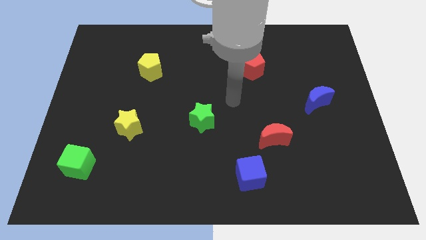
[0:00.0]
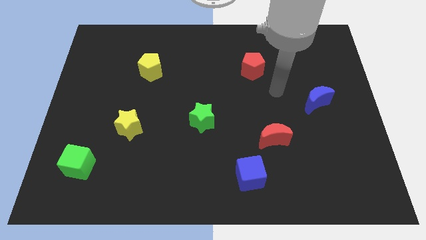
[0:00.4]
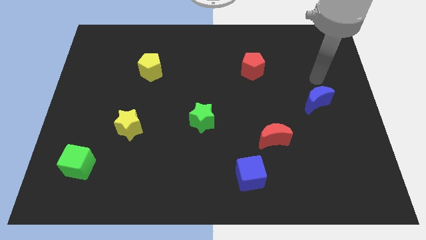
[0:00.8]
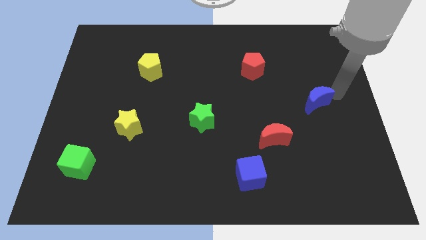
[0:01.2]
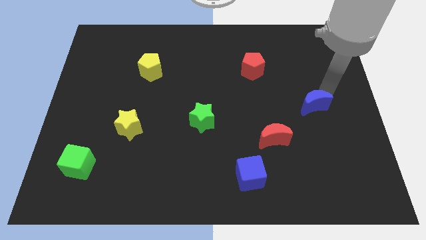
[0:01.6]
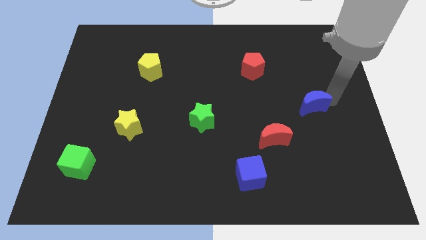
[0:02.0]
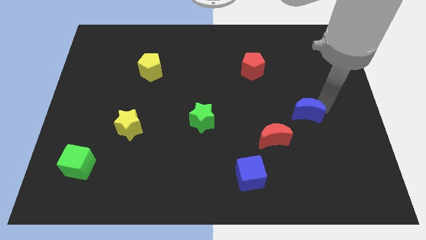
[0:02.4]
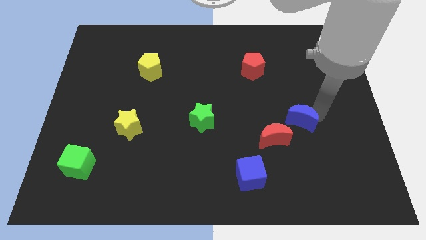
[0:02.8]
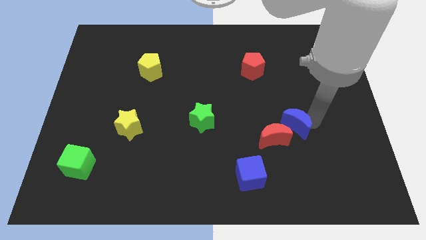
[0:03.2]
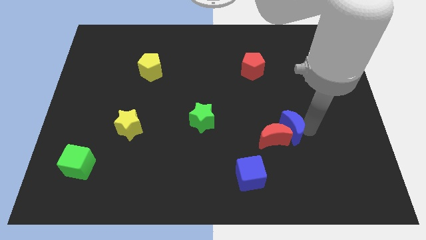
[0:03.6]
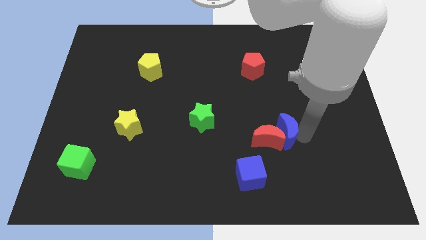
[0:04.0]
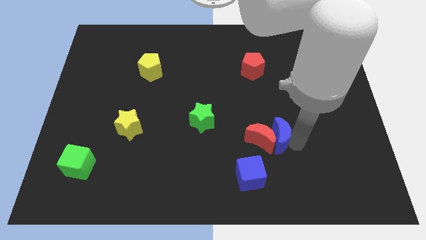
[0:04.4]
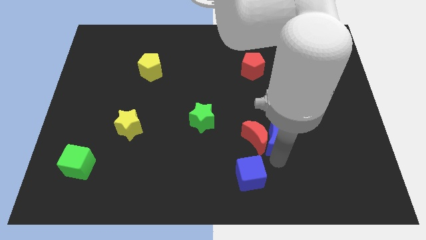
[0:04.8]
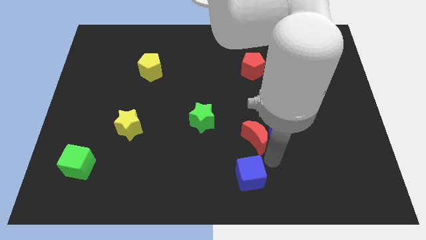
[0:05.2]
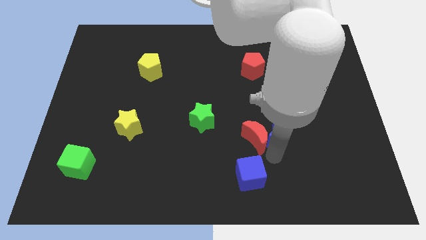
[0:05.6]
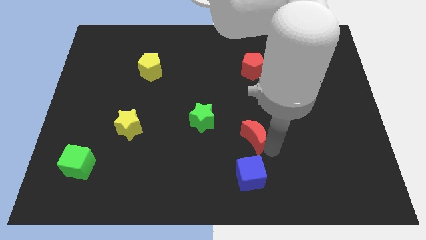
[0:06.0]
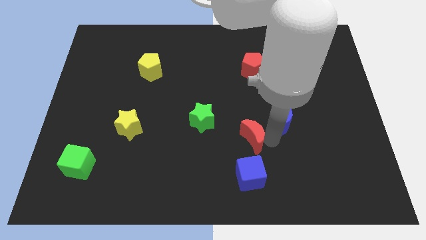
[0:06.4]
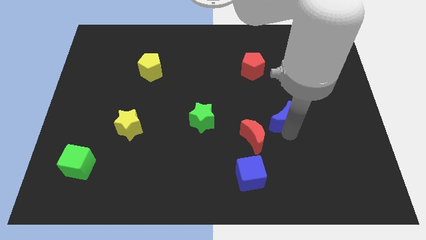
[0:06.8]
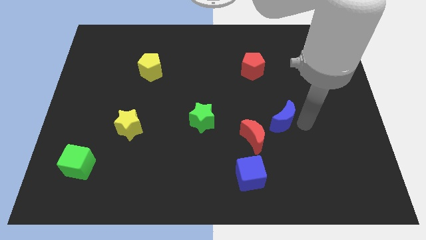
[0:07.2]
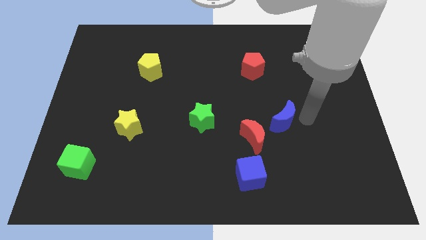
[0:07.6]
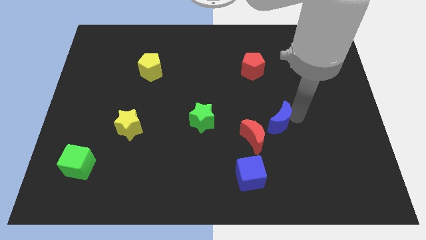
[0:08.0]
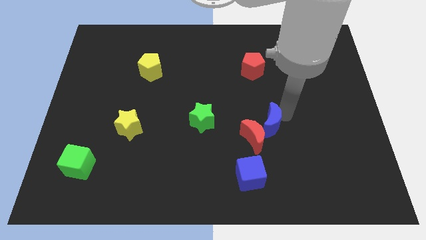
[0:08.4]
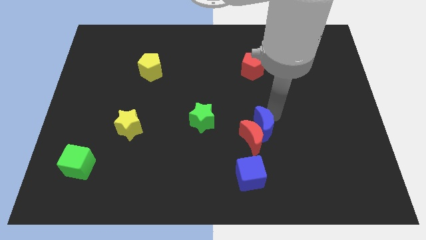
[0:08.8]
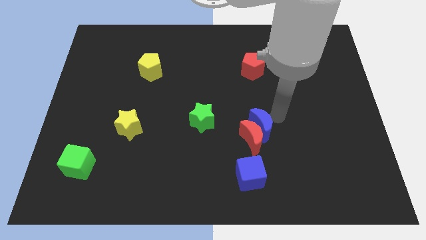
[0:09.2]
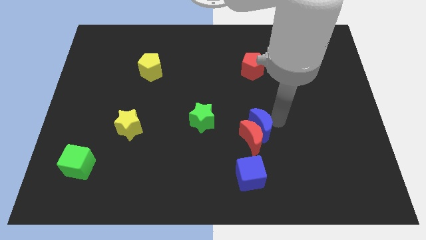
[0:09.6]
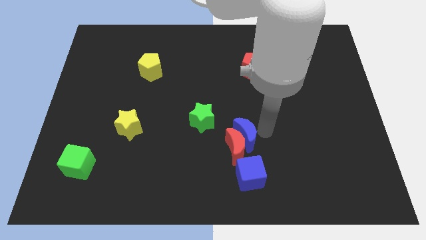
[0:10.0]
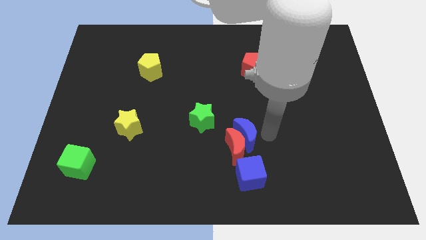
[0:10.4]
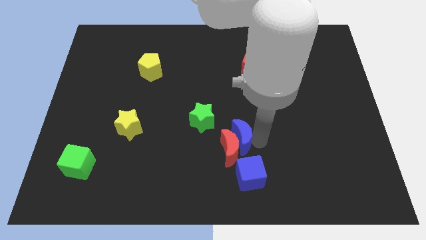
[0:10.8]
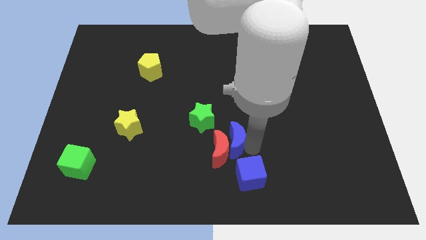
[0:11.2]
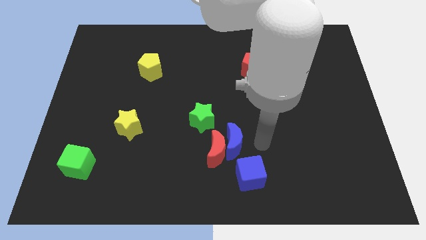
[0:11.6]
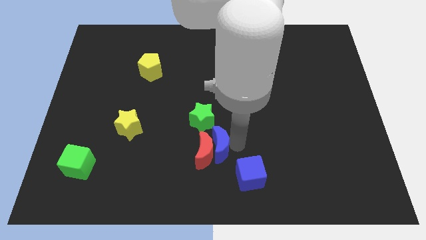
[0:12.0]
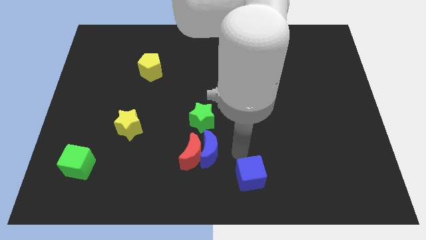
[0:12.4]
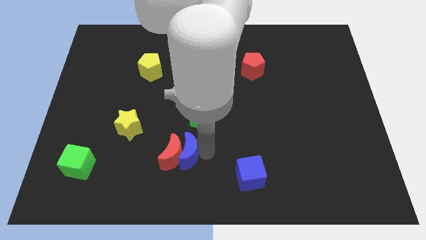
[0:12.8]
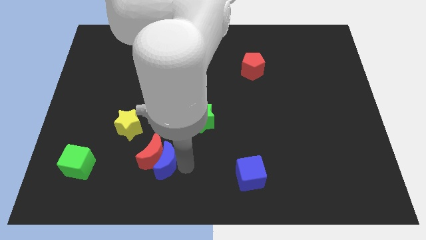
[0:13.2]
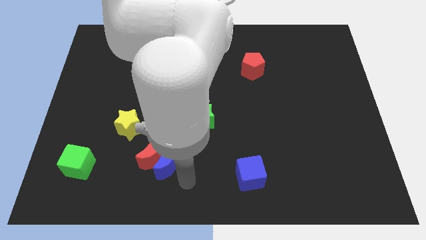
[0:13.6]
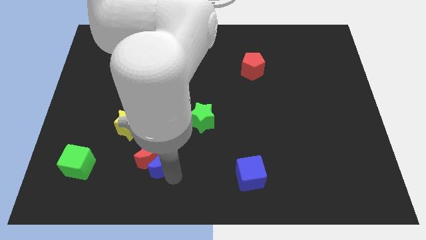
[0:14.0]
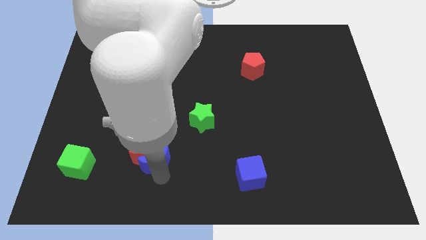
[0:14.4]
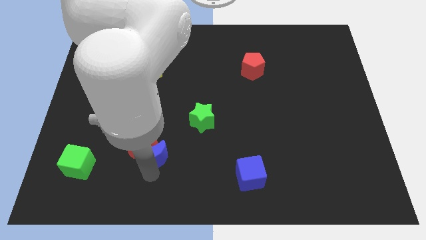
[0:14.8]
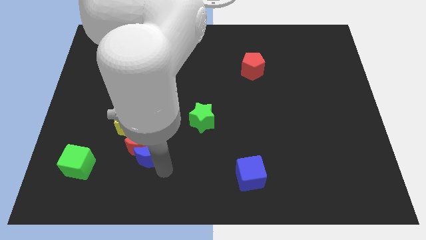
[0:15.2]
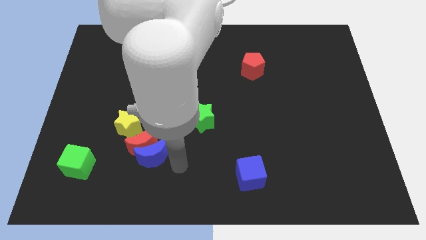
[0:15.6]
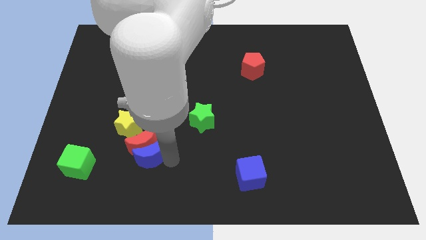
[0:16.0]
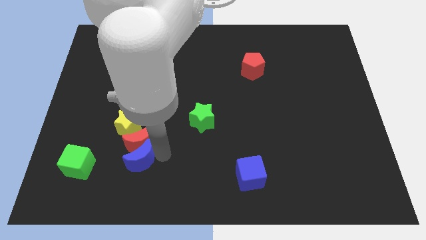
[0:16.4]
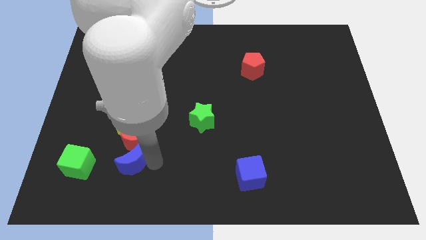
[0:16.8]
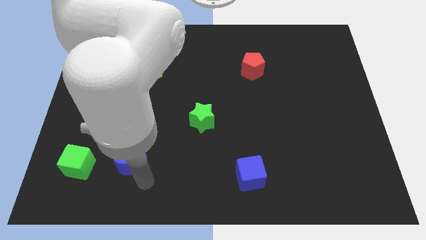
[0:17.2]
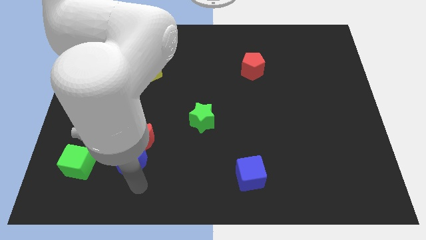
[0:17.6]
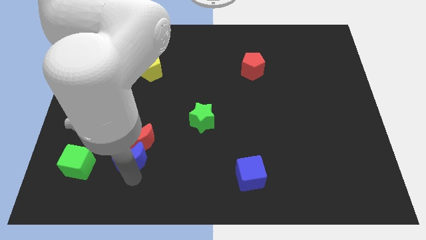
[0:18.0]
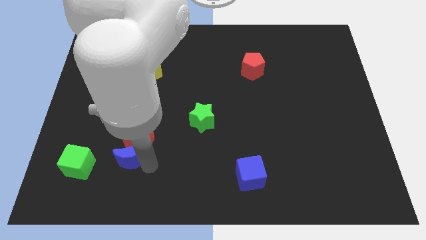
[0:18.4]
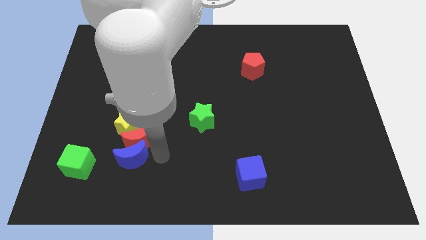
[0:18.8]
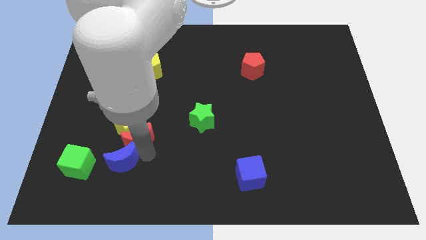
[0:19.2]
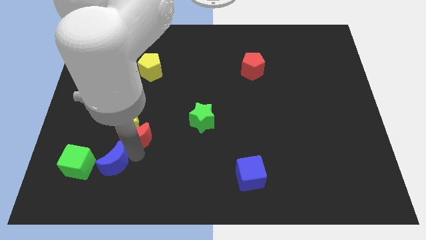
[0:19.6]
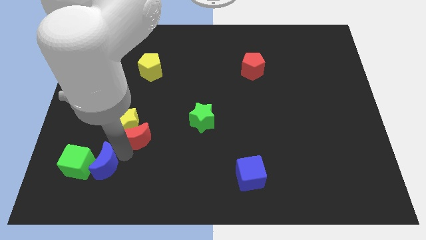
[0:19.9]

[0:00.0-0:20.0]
put the blue moon to the green cube

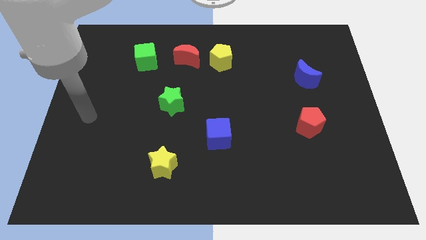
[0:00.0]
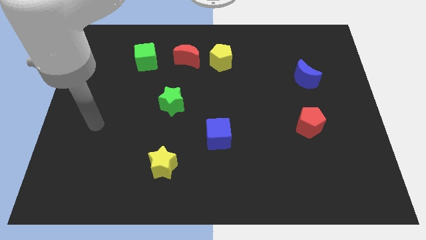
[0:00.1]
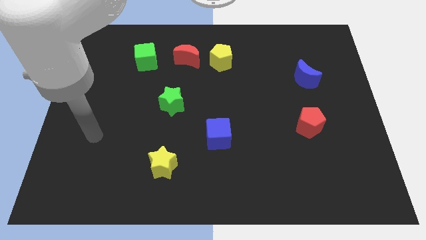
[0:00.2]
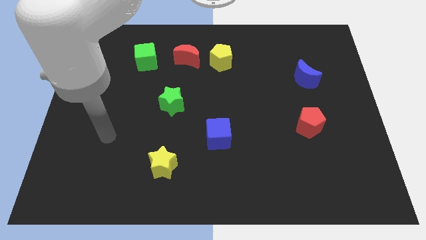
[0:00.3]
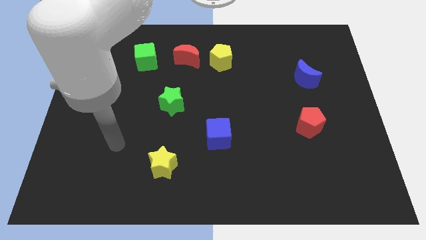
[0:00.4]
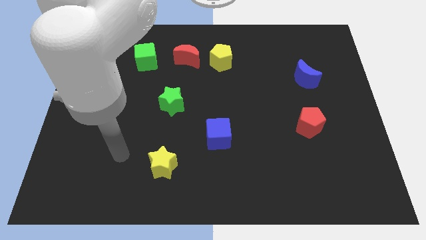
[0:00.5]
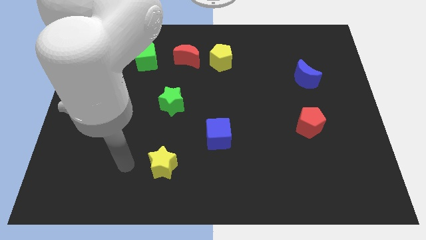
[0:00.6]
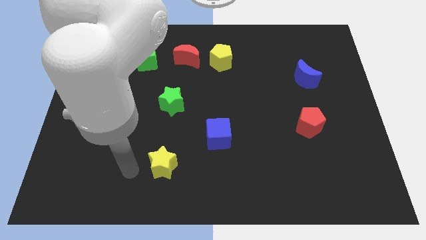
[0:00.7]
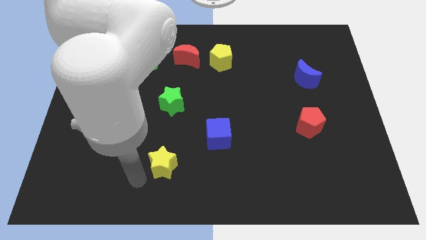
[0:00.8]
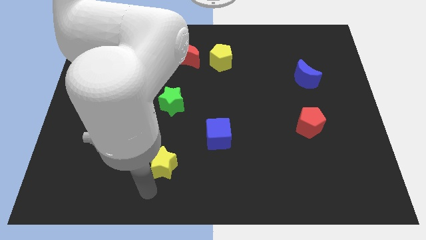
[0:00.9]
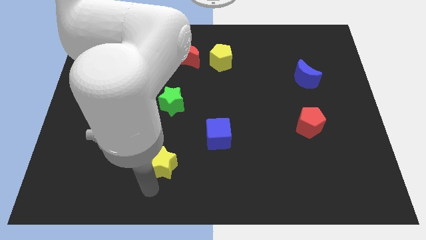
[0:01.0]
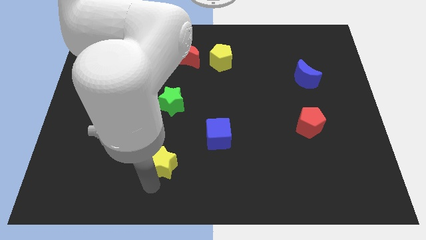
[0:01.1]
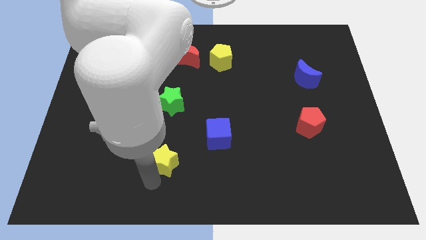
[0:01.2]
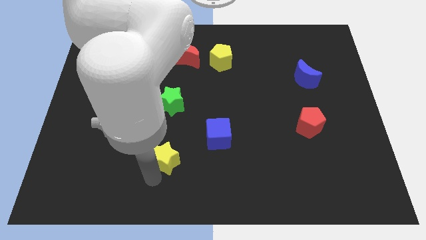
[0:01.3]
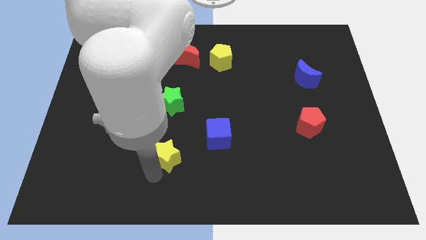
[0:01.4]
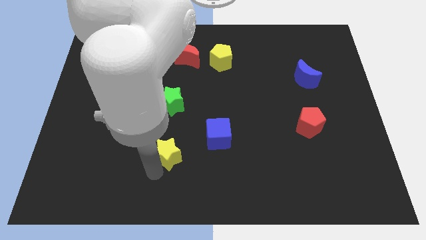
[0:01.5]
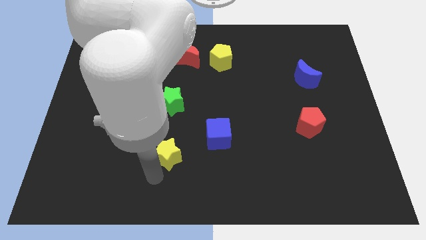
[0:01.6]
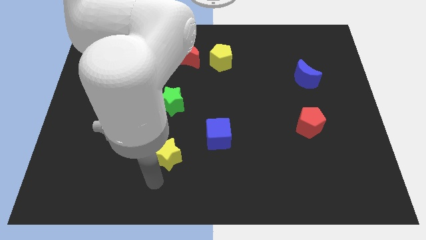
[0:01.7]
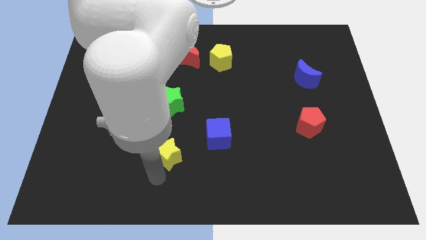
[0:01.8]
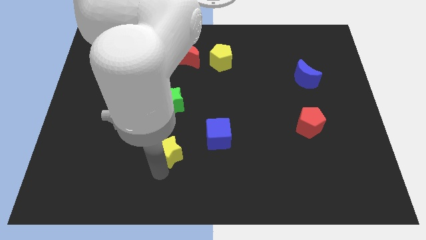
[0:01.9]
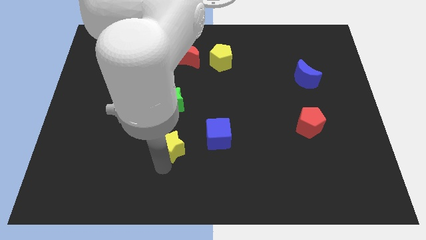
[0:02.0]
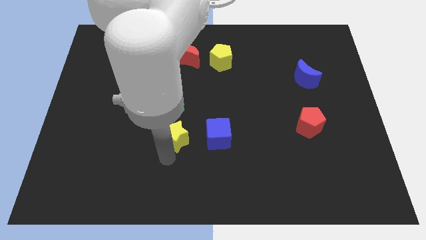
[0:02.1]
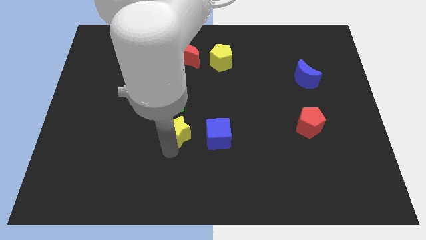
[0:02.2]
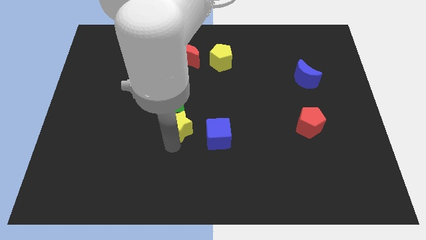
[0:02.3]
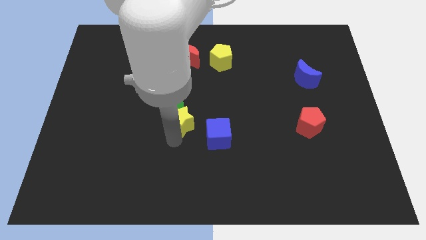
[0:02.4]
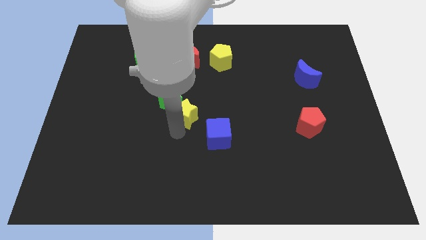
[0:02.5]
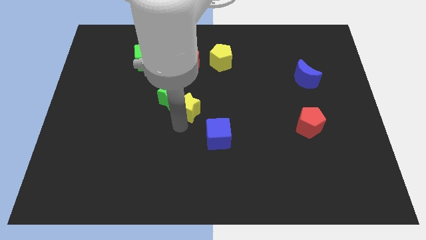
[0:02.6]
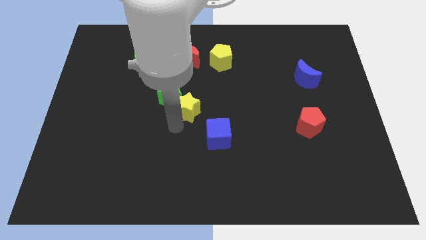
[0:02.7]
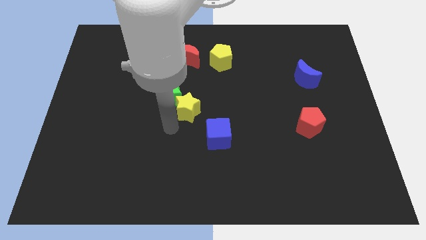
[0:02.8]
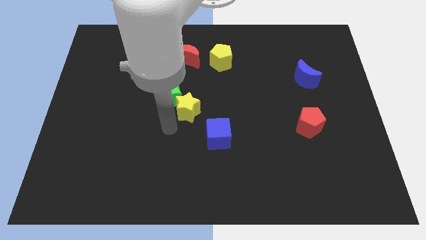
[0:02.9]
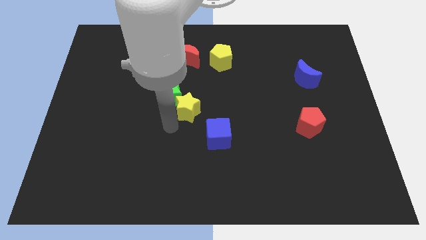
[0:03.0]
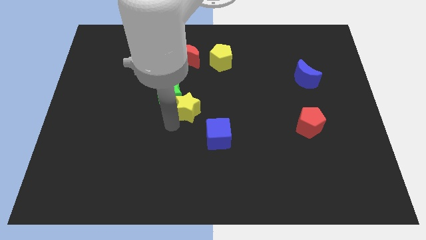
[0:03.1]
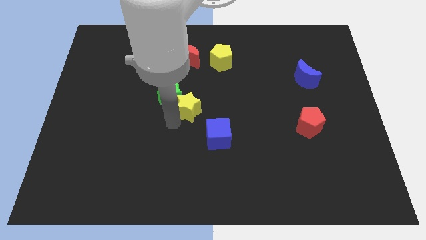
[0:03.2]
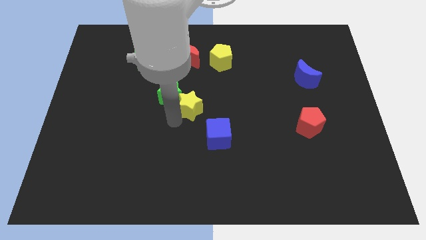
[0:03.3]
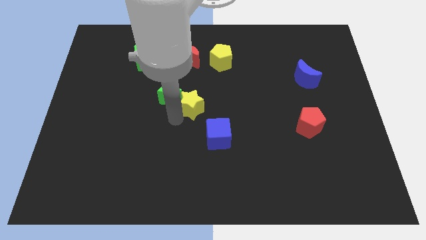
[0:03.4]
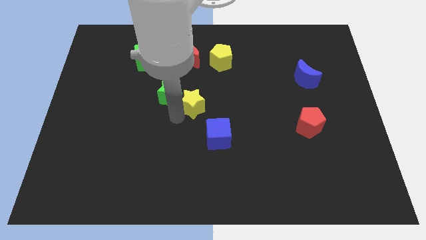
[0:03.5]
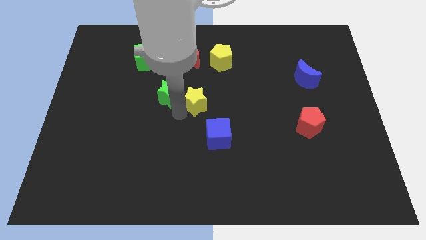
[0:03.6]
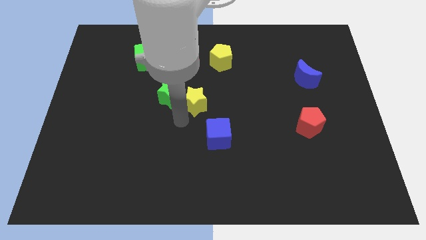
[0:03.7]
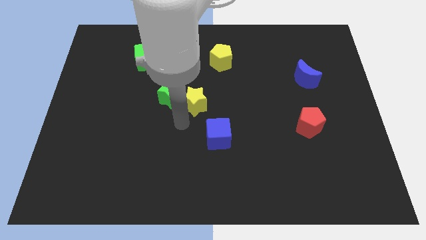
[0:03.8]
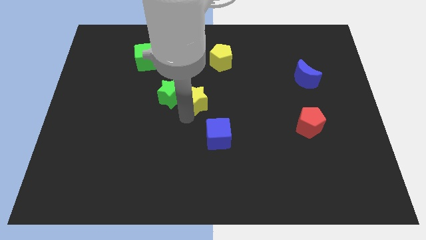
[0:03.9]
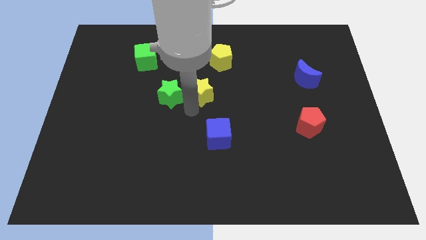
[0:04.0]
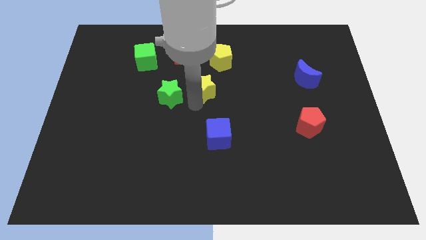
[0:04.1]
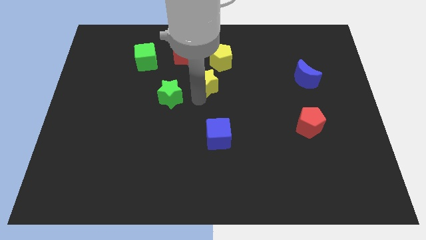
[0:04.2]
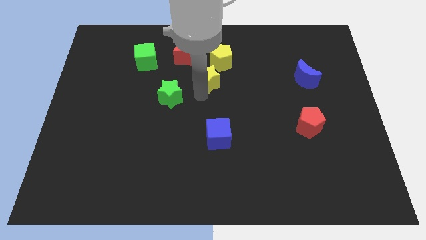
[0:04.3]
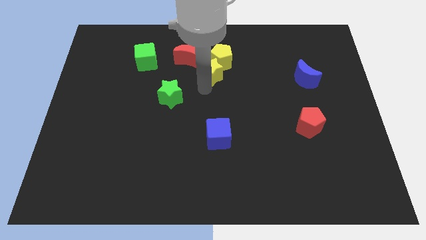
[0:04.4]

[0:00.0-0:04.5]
put the yellow star towards the yellow pentagon
